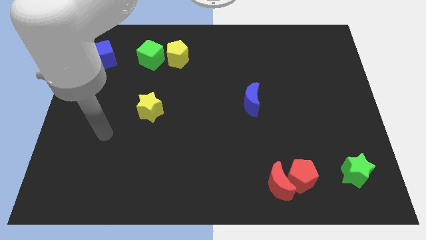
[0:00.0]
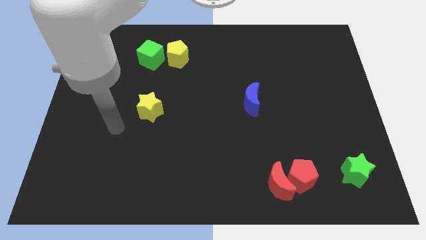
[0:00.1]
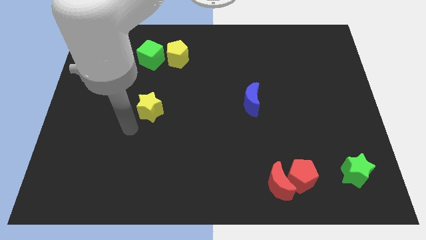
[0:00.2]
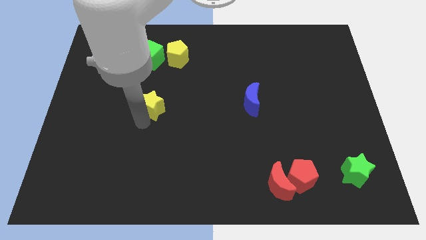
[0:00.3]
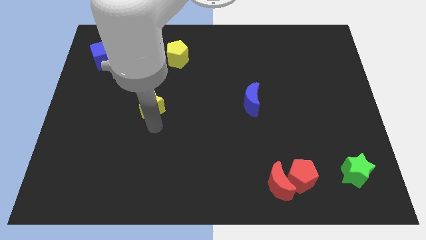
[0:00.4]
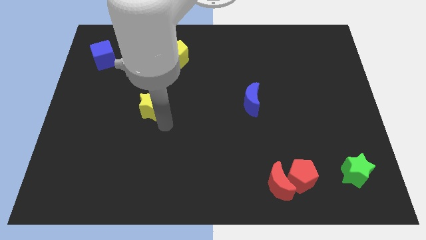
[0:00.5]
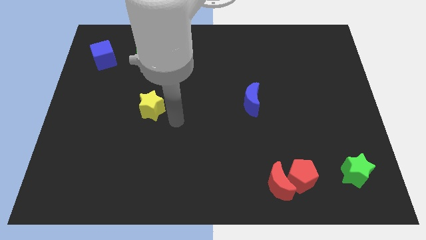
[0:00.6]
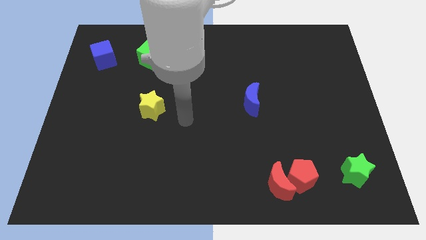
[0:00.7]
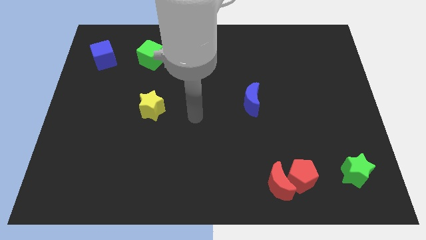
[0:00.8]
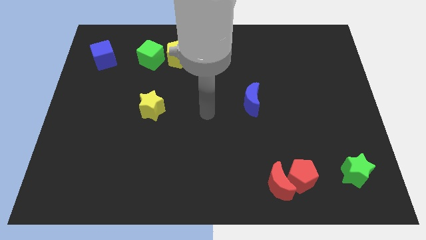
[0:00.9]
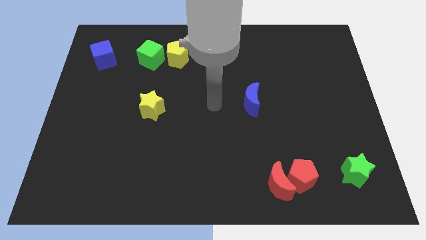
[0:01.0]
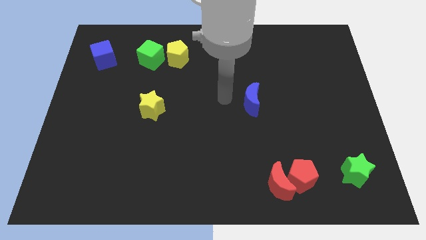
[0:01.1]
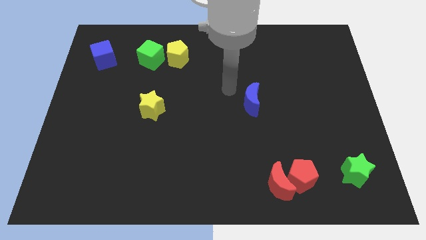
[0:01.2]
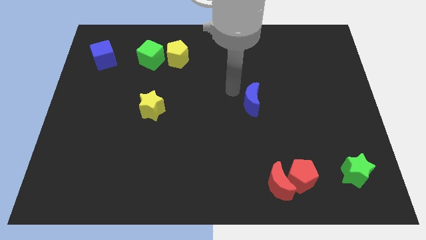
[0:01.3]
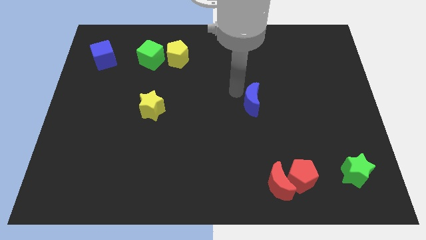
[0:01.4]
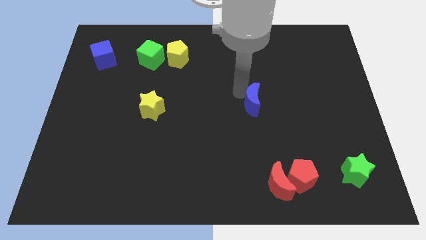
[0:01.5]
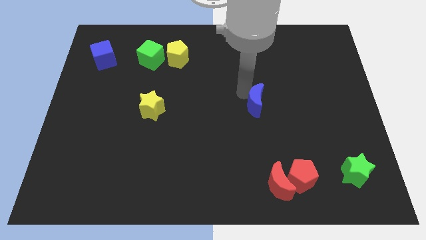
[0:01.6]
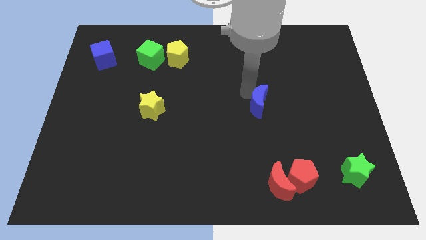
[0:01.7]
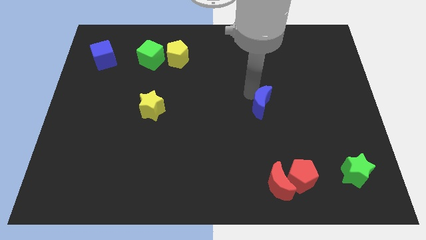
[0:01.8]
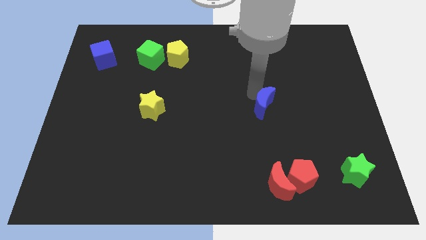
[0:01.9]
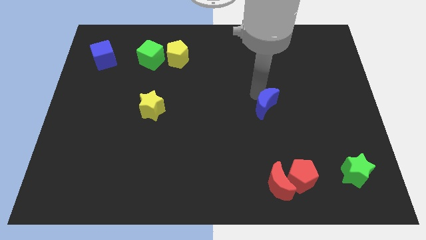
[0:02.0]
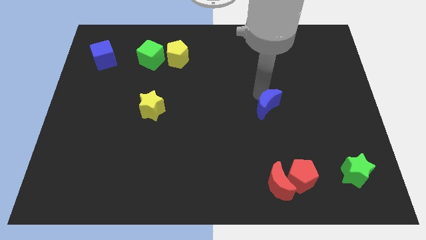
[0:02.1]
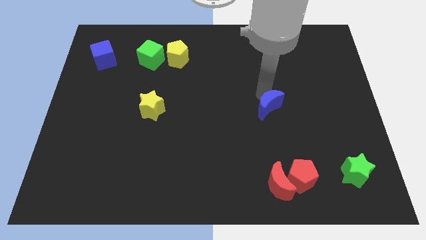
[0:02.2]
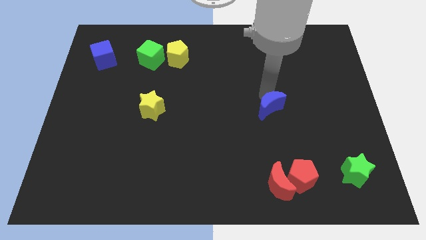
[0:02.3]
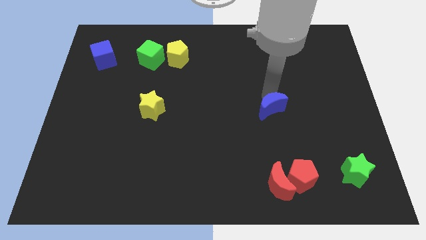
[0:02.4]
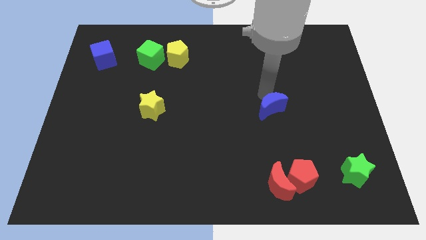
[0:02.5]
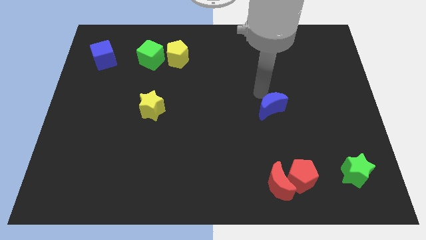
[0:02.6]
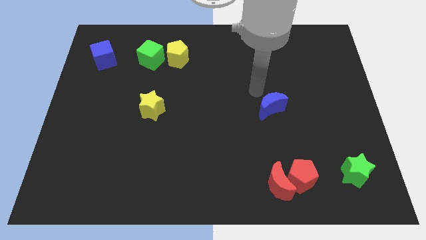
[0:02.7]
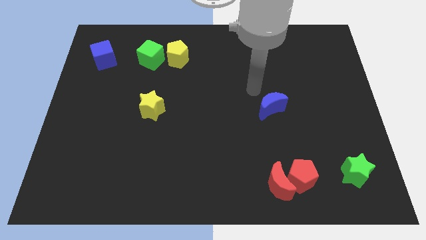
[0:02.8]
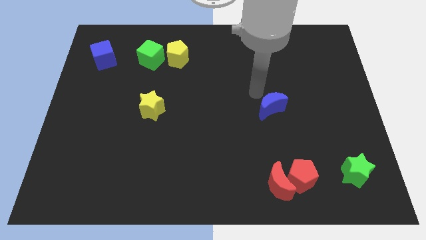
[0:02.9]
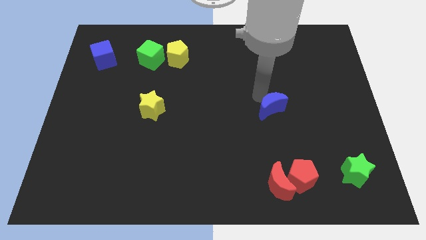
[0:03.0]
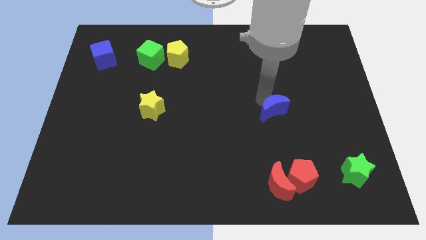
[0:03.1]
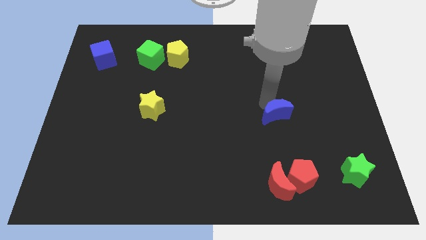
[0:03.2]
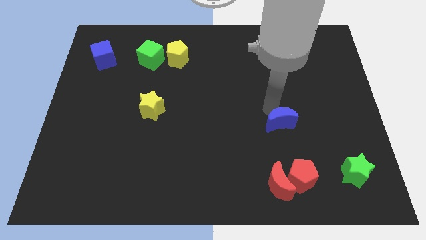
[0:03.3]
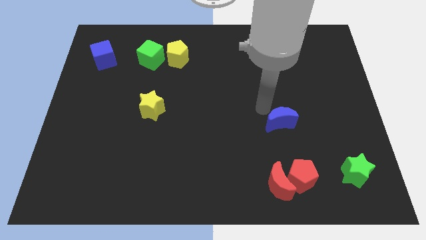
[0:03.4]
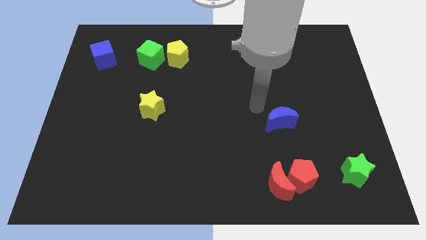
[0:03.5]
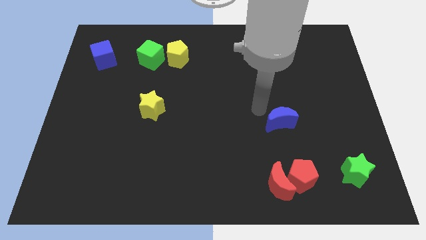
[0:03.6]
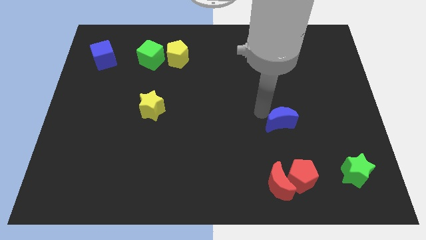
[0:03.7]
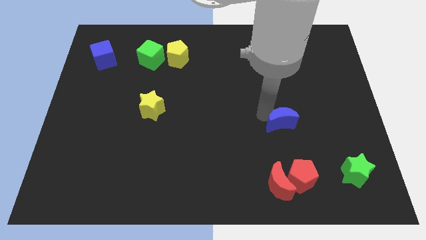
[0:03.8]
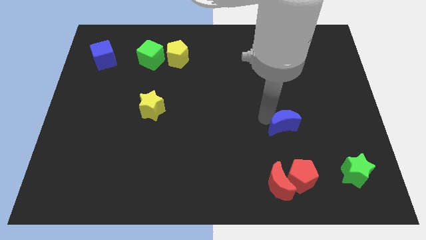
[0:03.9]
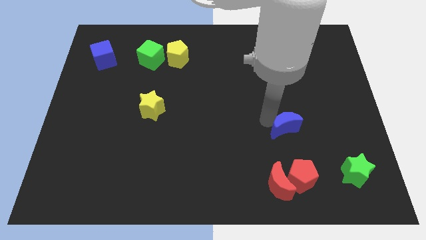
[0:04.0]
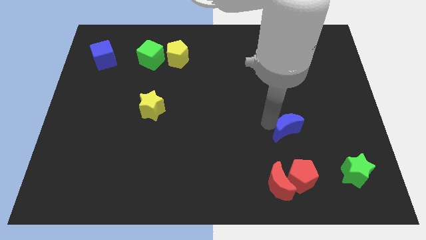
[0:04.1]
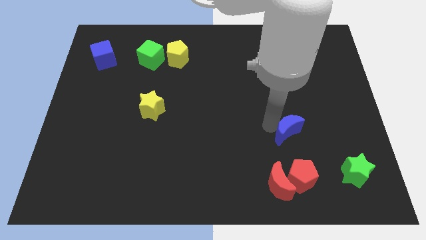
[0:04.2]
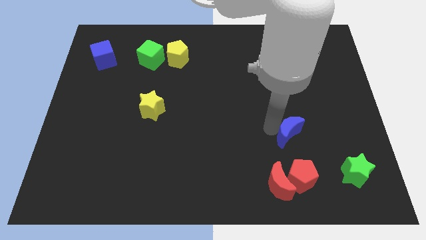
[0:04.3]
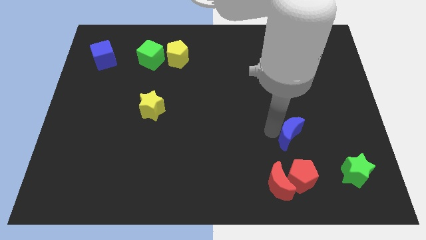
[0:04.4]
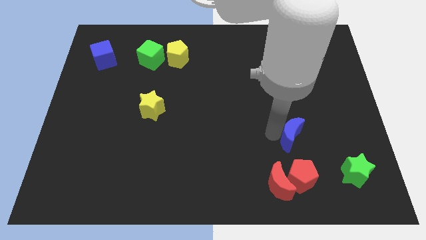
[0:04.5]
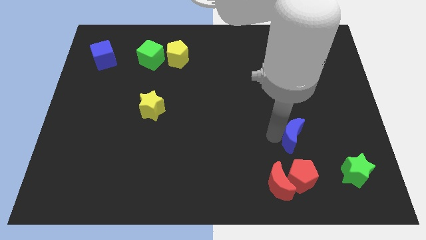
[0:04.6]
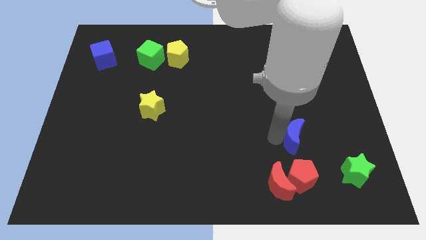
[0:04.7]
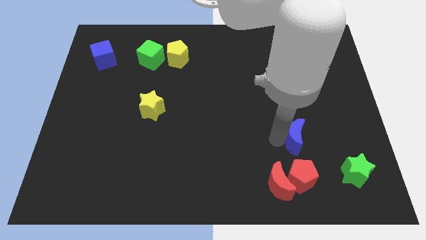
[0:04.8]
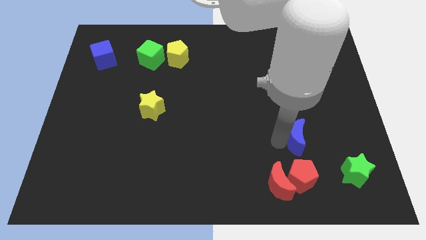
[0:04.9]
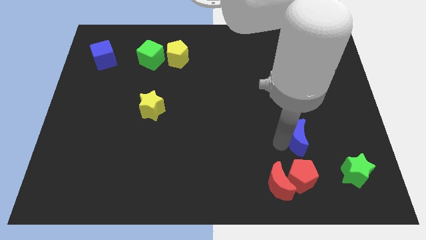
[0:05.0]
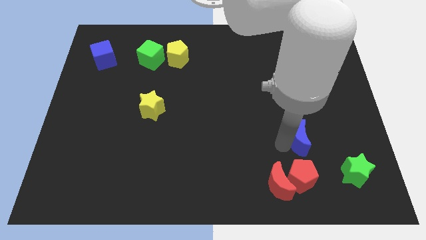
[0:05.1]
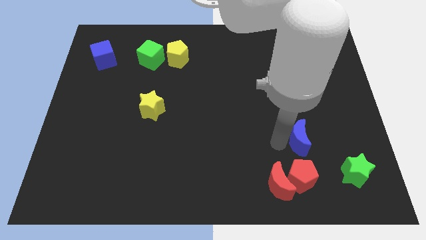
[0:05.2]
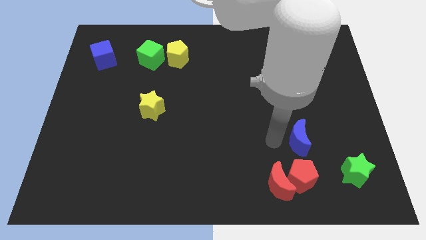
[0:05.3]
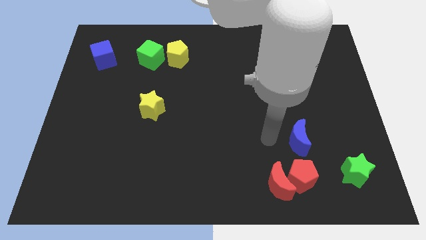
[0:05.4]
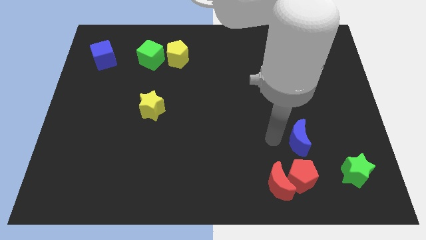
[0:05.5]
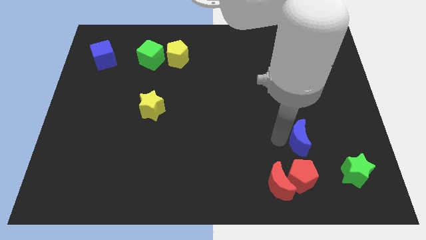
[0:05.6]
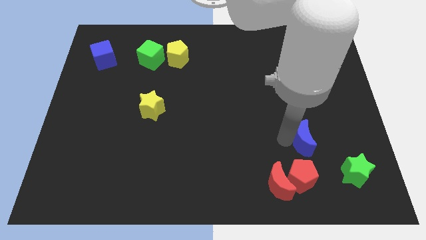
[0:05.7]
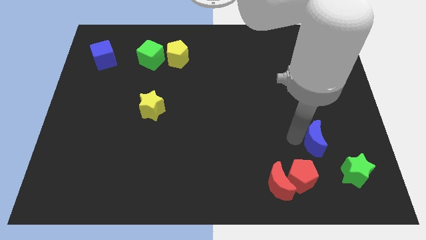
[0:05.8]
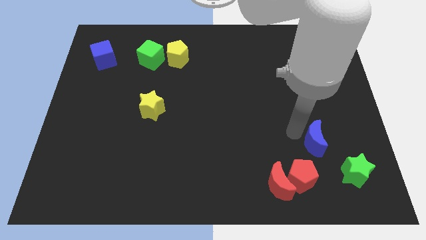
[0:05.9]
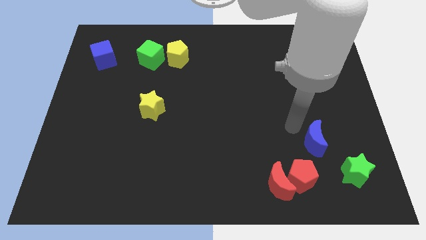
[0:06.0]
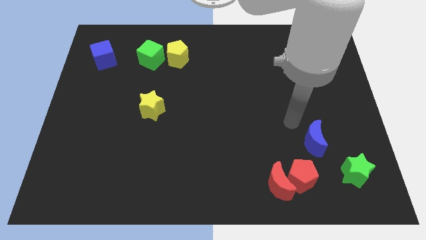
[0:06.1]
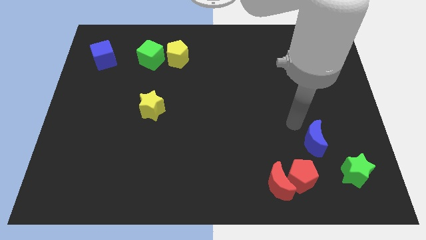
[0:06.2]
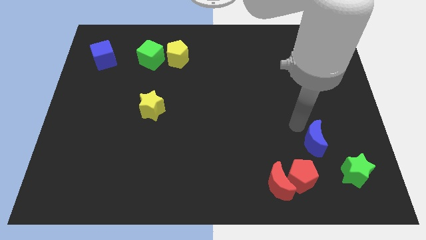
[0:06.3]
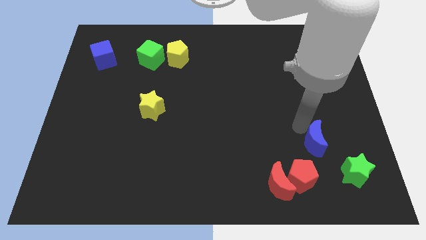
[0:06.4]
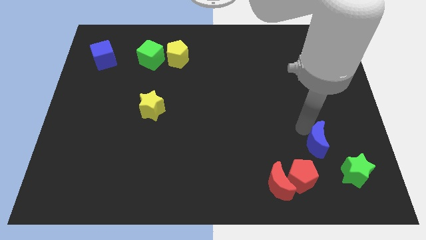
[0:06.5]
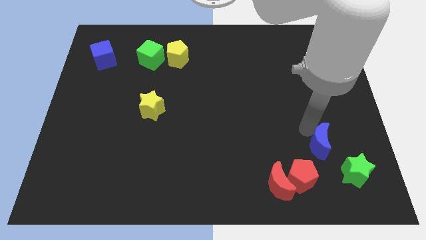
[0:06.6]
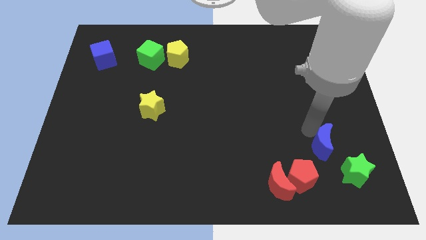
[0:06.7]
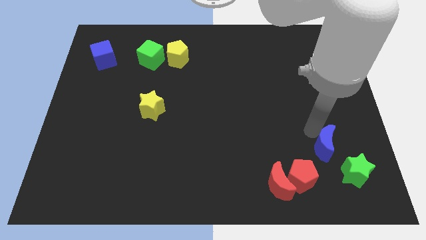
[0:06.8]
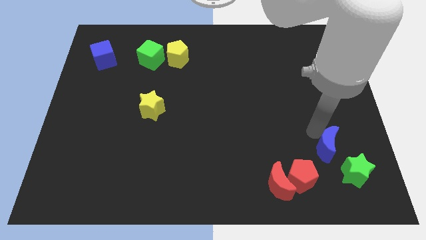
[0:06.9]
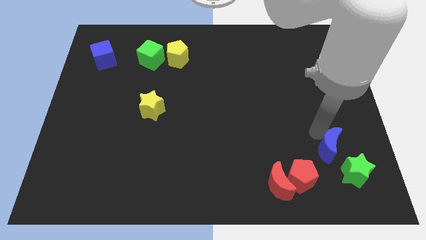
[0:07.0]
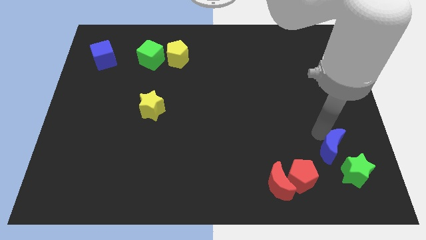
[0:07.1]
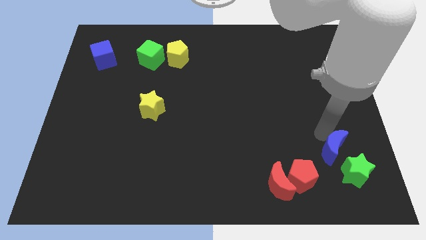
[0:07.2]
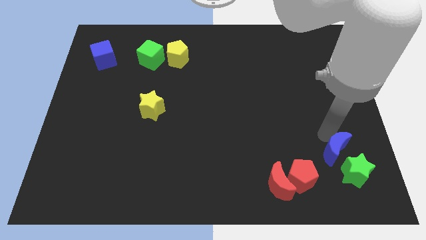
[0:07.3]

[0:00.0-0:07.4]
move the blue moon towards the green star
